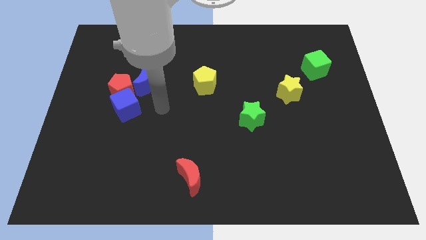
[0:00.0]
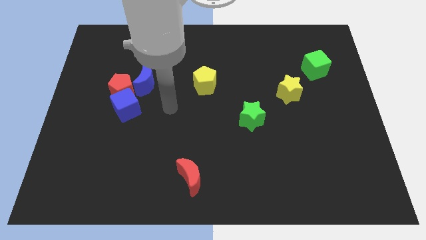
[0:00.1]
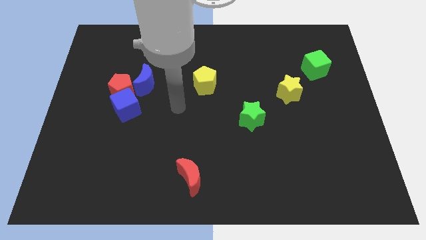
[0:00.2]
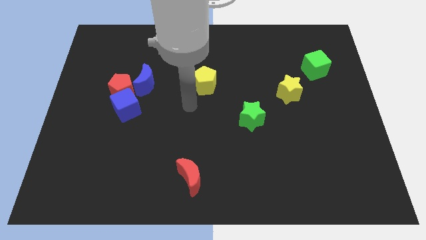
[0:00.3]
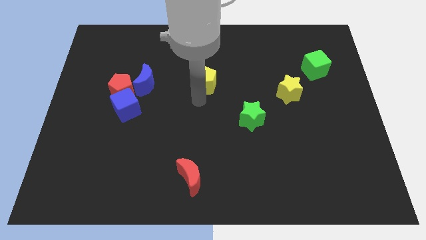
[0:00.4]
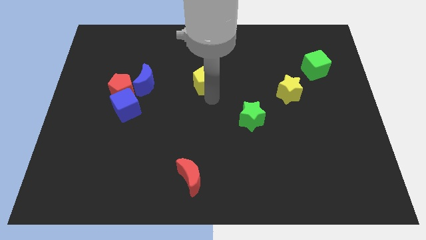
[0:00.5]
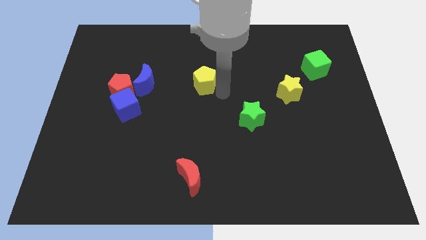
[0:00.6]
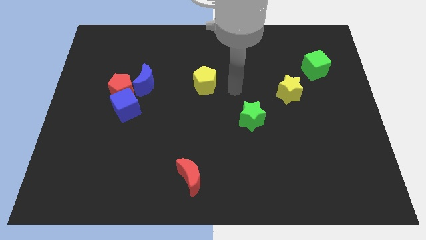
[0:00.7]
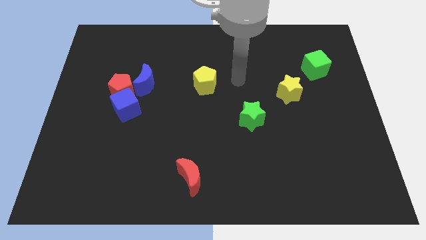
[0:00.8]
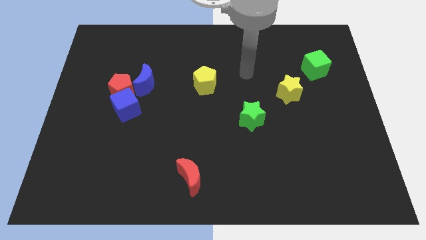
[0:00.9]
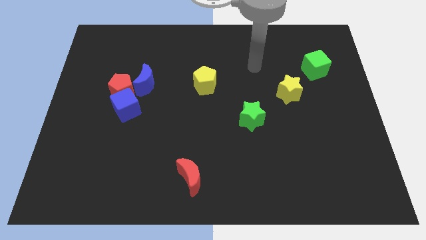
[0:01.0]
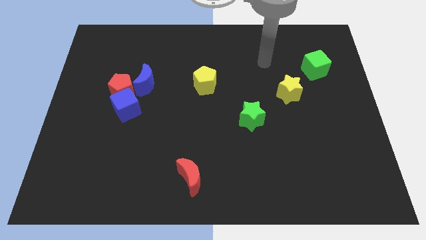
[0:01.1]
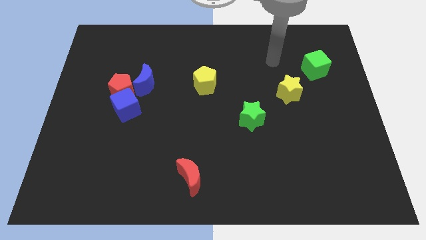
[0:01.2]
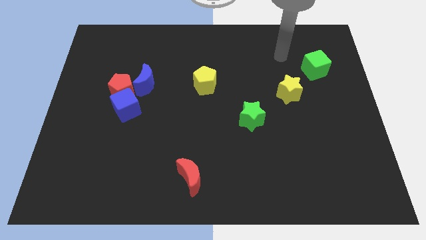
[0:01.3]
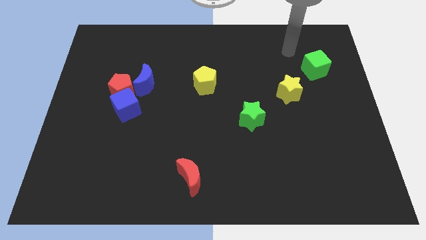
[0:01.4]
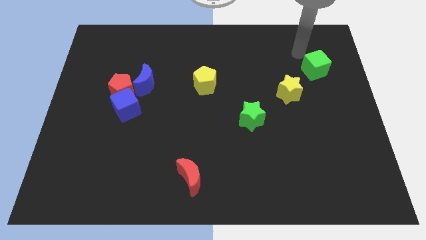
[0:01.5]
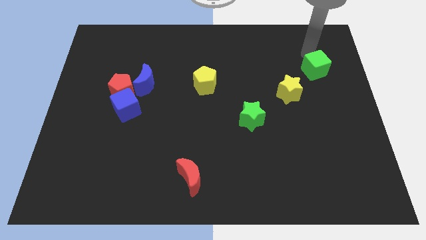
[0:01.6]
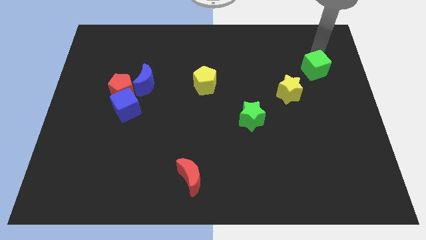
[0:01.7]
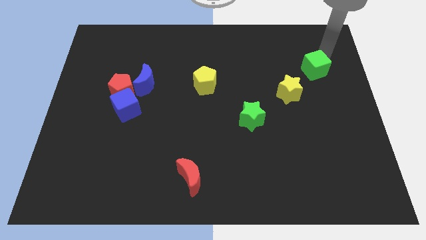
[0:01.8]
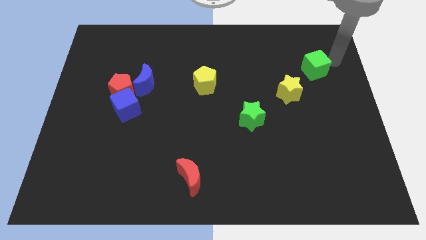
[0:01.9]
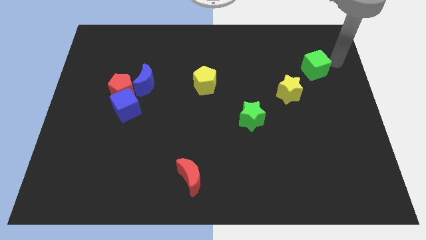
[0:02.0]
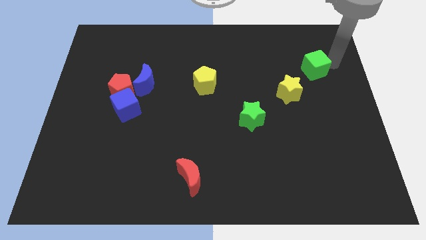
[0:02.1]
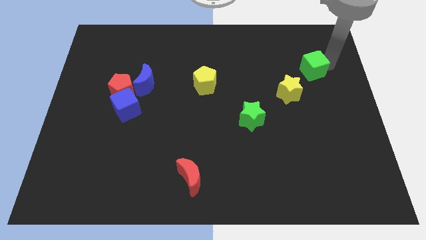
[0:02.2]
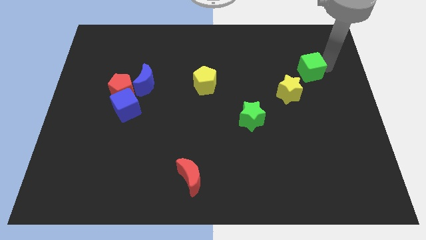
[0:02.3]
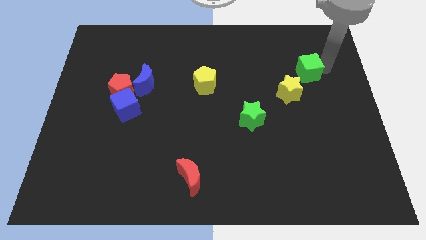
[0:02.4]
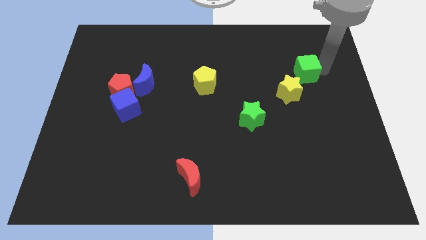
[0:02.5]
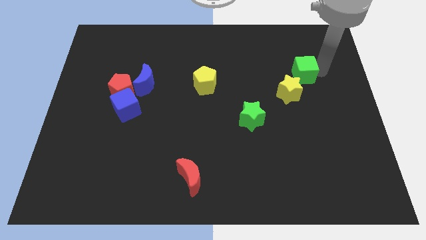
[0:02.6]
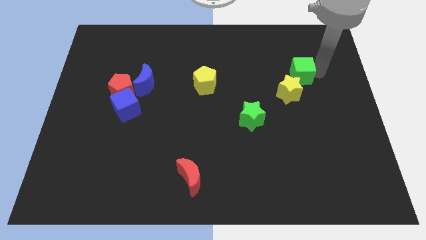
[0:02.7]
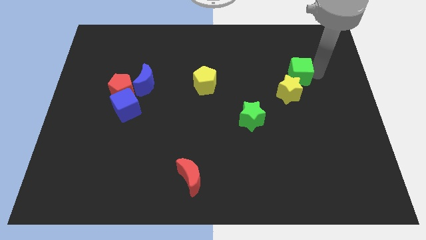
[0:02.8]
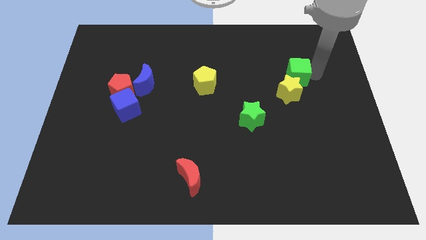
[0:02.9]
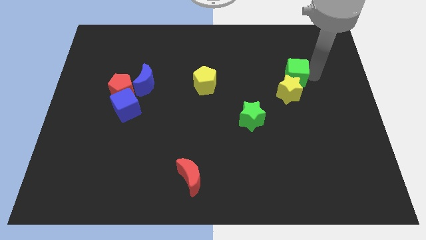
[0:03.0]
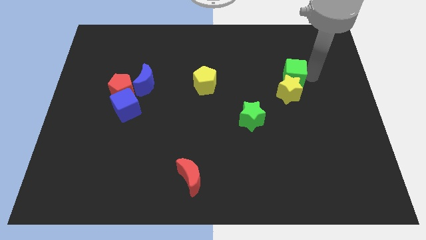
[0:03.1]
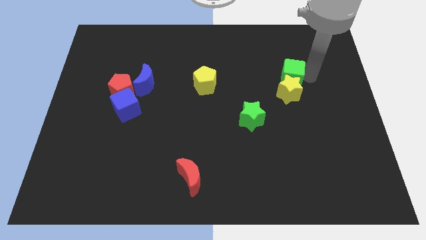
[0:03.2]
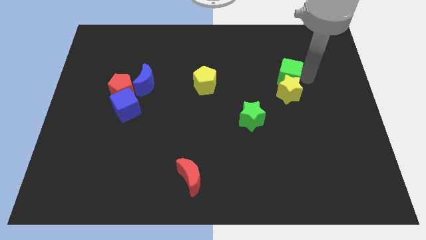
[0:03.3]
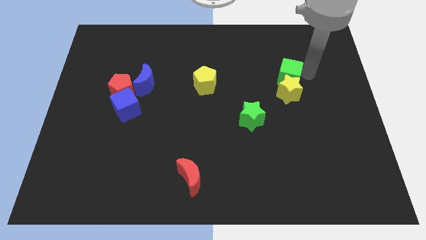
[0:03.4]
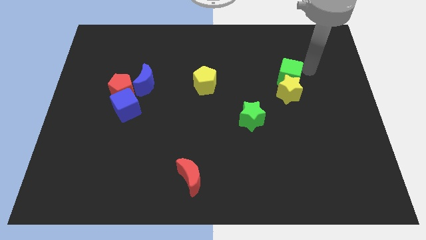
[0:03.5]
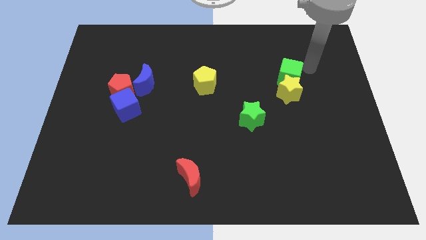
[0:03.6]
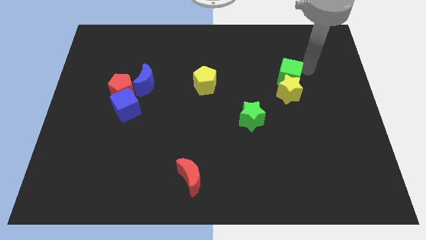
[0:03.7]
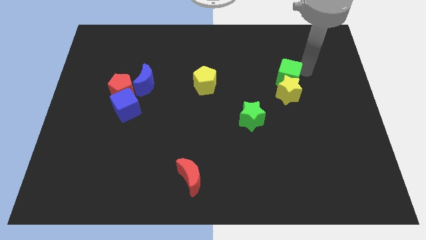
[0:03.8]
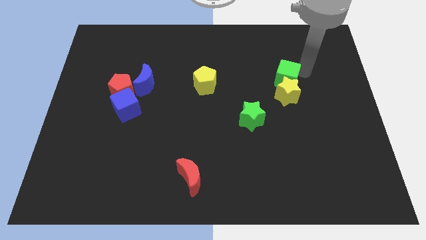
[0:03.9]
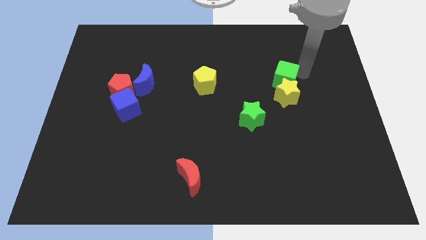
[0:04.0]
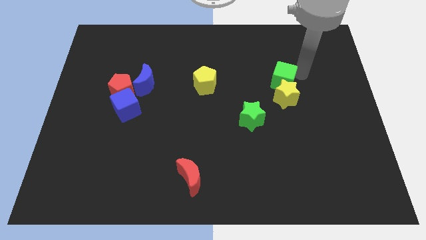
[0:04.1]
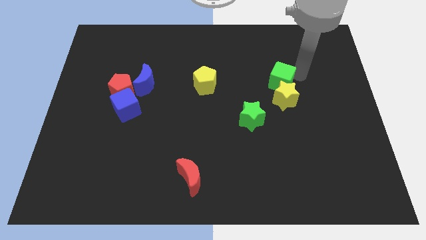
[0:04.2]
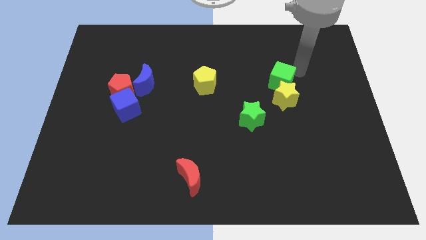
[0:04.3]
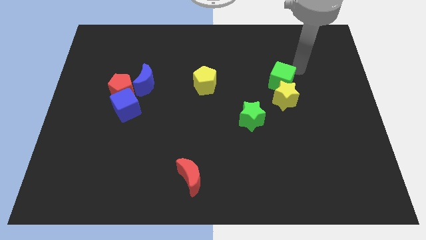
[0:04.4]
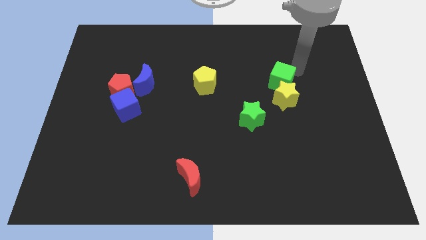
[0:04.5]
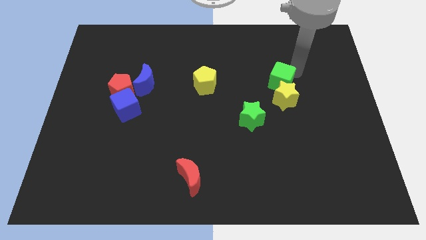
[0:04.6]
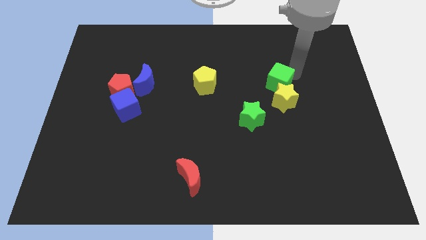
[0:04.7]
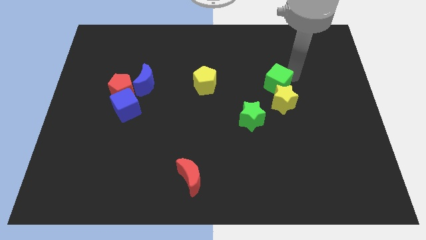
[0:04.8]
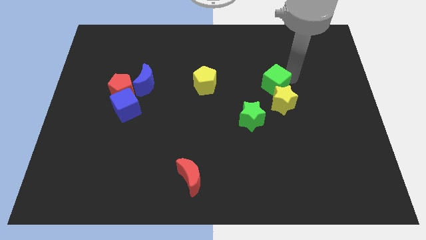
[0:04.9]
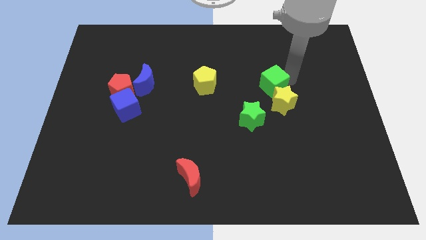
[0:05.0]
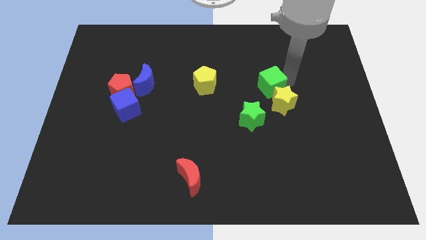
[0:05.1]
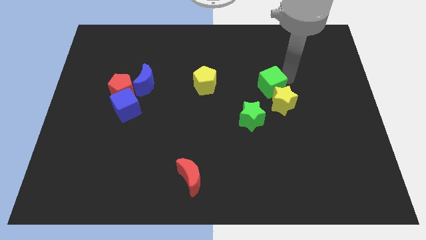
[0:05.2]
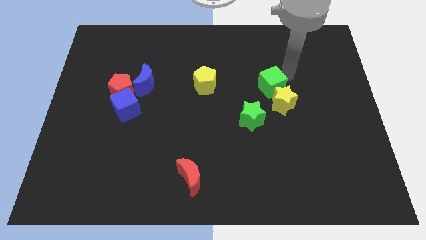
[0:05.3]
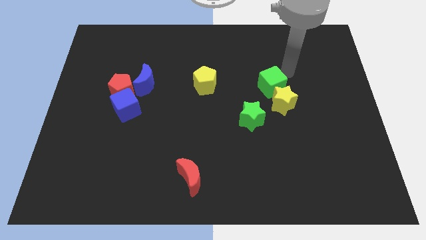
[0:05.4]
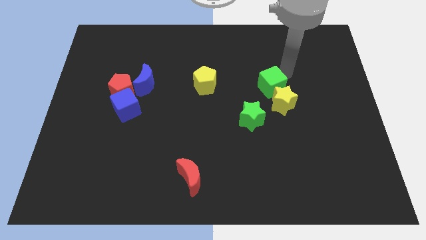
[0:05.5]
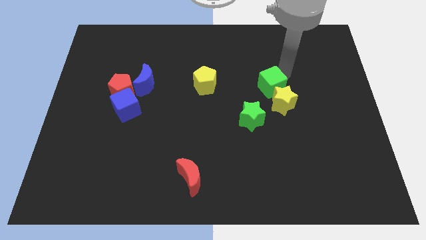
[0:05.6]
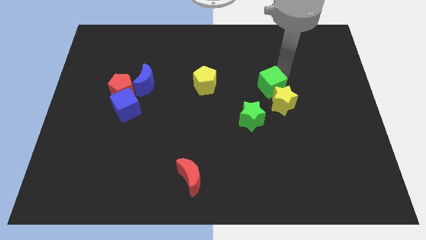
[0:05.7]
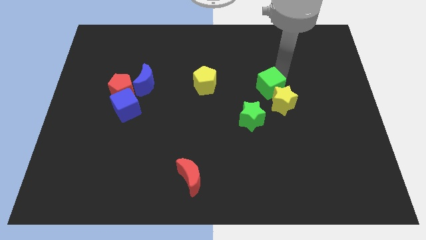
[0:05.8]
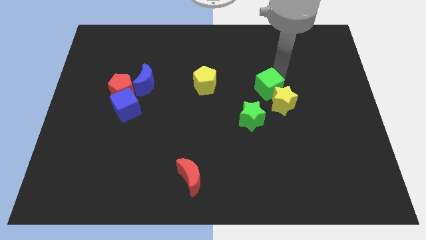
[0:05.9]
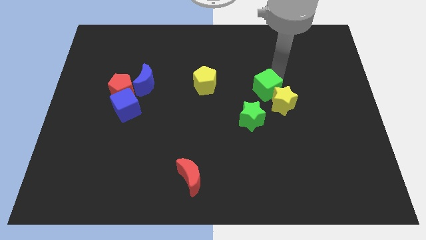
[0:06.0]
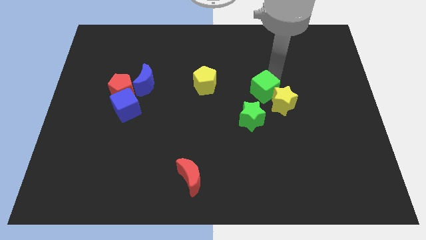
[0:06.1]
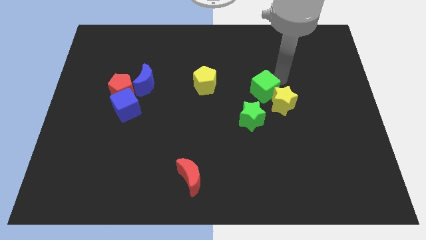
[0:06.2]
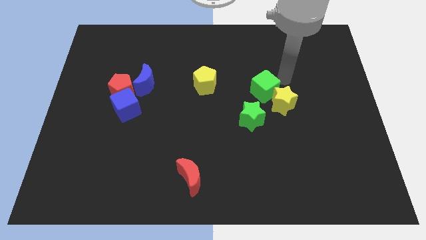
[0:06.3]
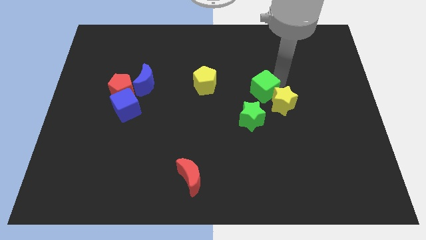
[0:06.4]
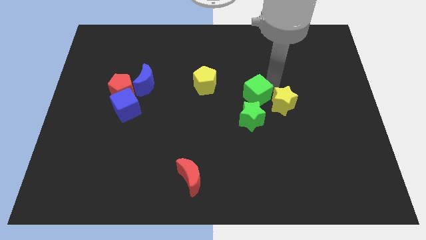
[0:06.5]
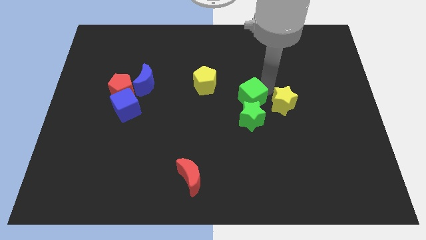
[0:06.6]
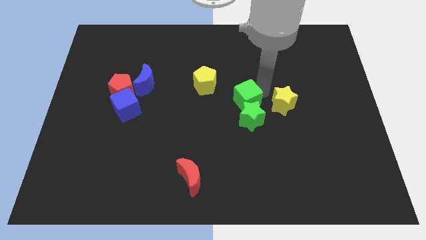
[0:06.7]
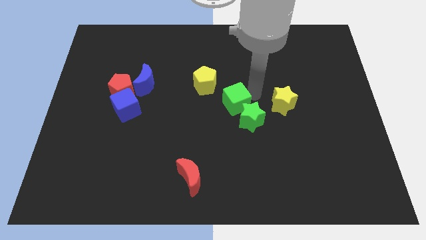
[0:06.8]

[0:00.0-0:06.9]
move the green cube downwards and to the left

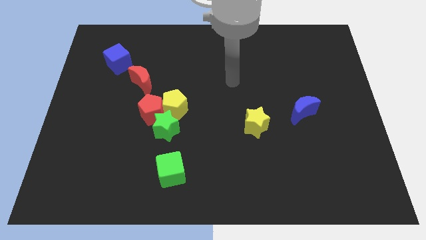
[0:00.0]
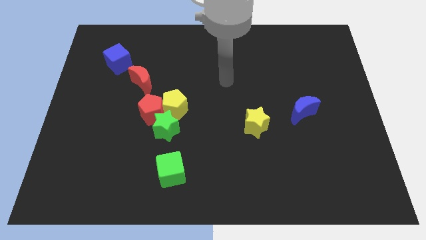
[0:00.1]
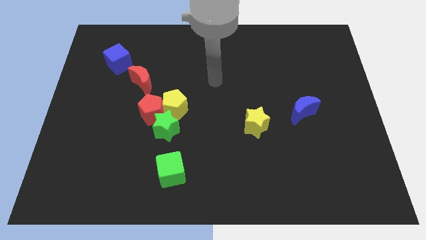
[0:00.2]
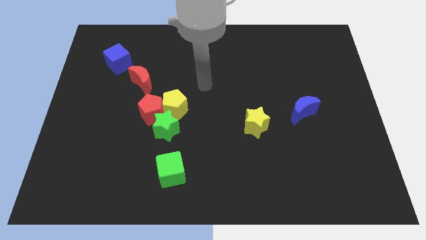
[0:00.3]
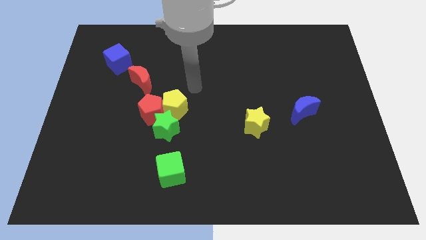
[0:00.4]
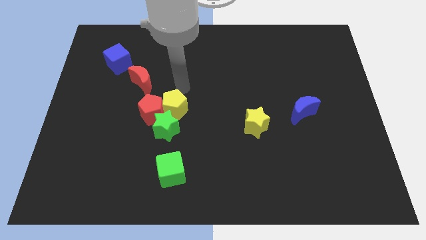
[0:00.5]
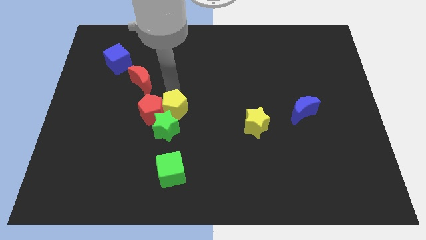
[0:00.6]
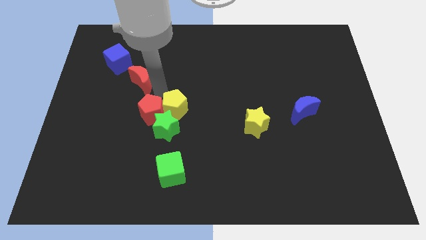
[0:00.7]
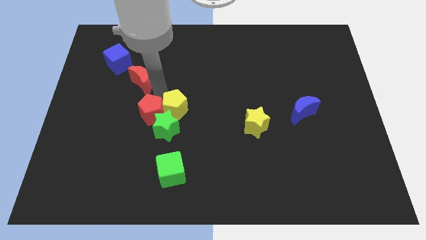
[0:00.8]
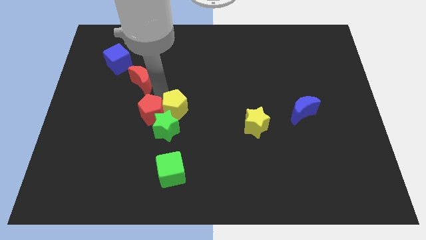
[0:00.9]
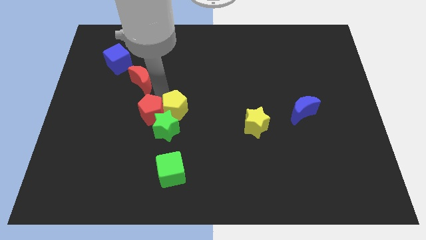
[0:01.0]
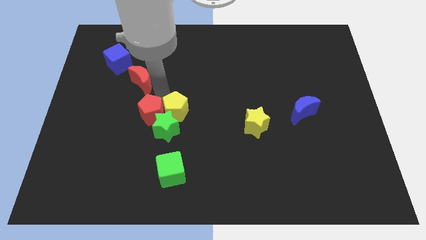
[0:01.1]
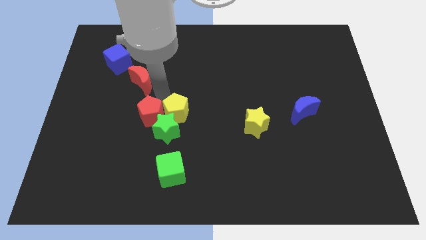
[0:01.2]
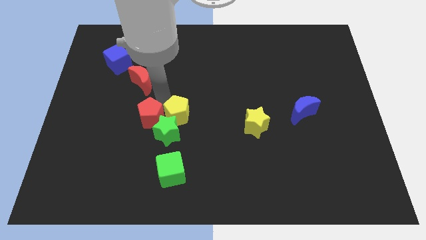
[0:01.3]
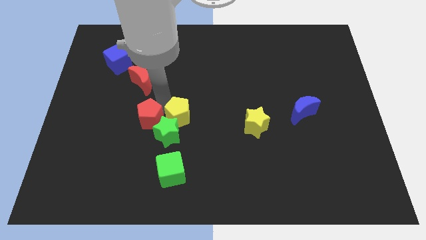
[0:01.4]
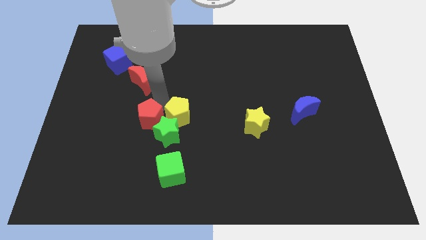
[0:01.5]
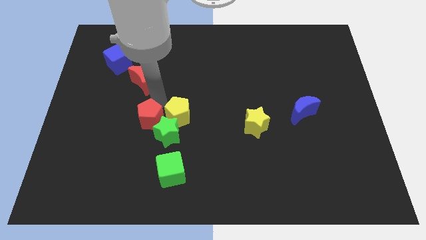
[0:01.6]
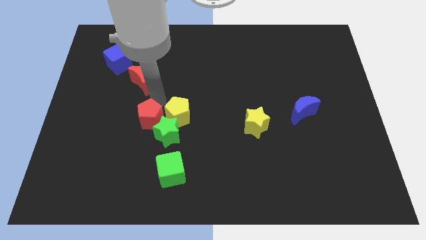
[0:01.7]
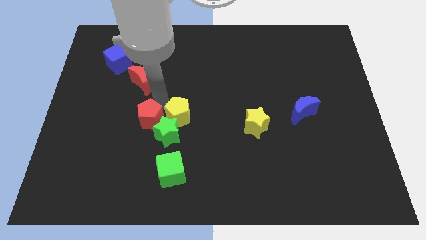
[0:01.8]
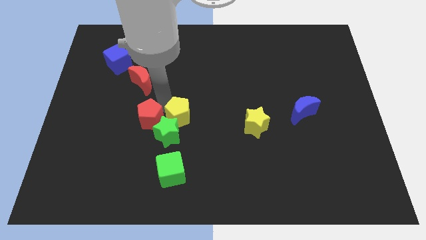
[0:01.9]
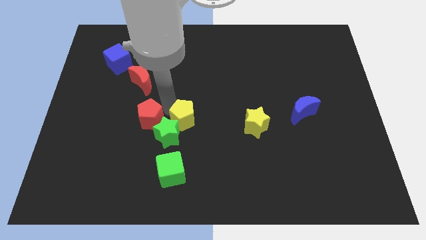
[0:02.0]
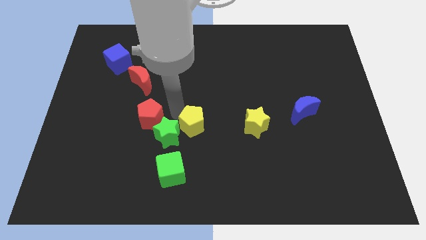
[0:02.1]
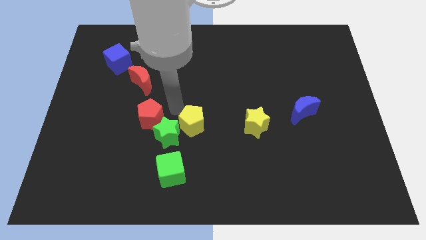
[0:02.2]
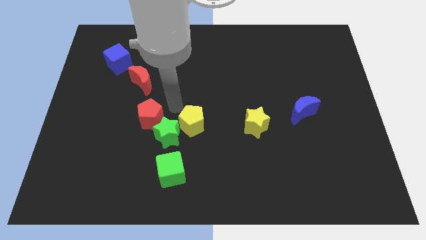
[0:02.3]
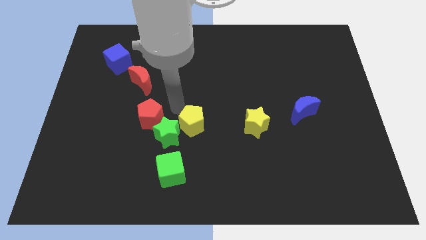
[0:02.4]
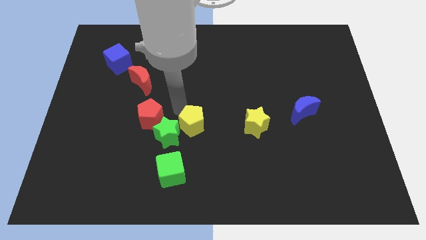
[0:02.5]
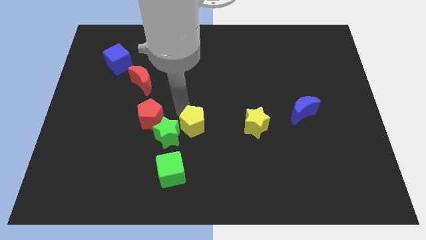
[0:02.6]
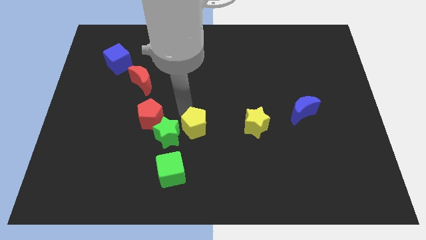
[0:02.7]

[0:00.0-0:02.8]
push the yellow pentagon diagonally downwards and to the right a bit
